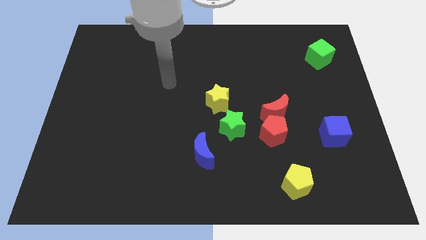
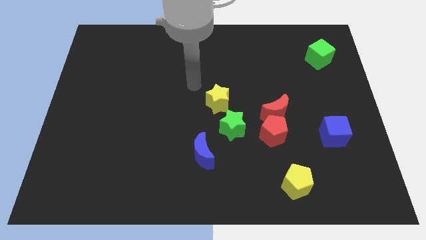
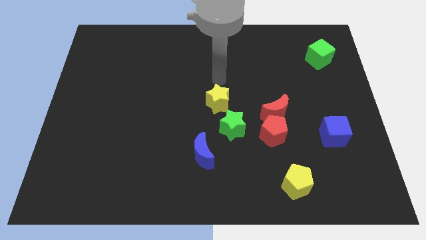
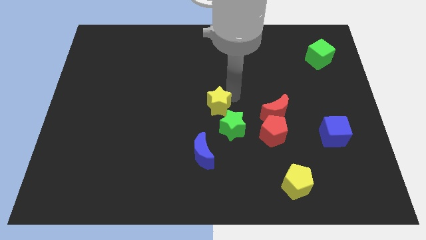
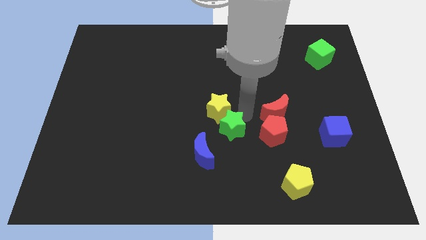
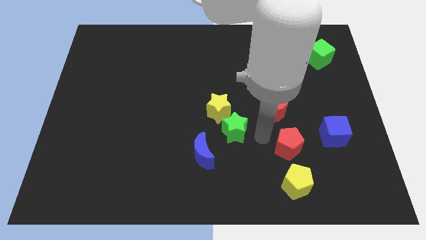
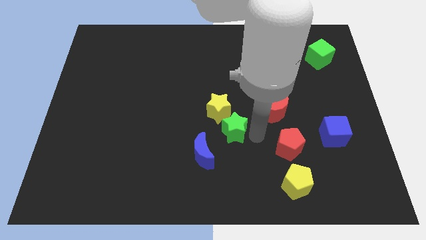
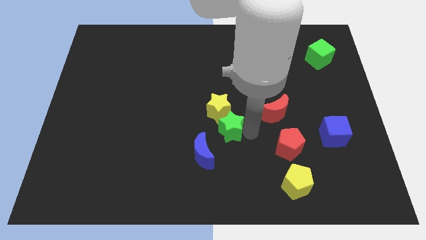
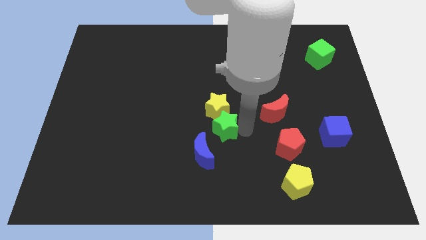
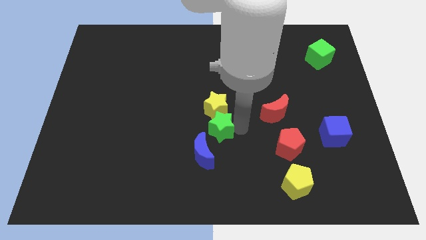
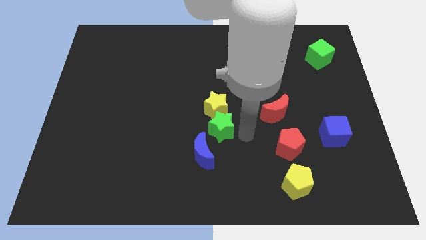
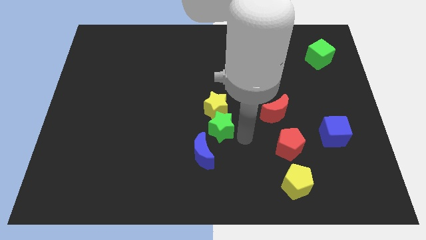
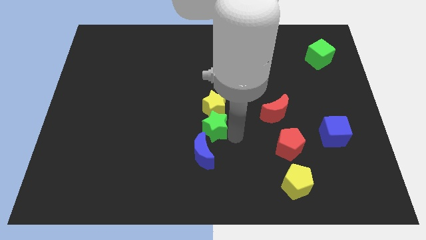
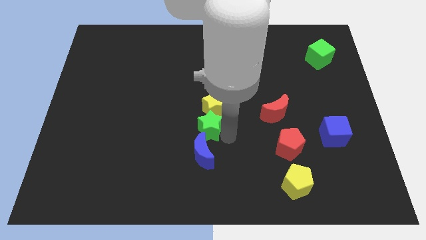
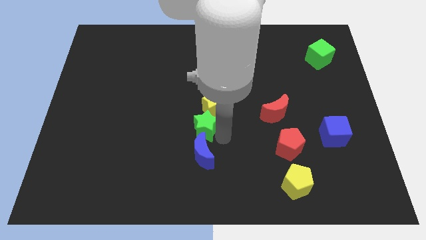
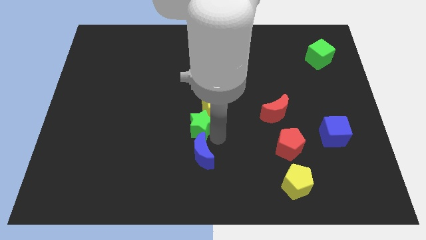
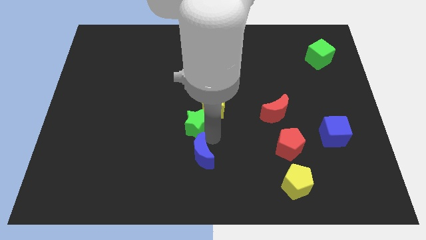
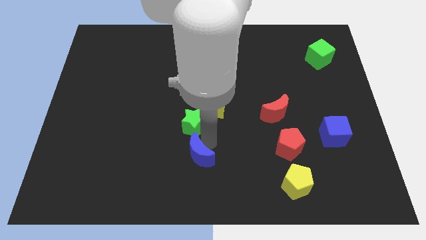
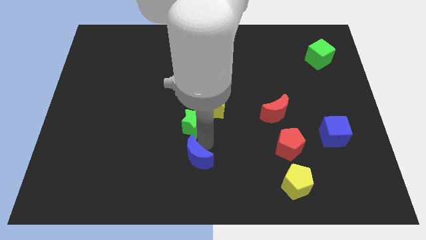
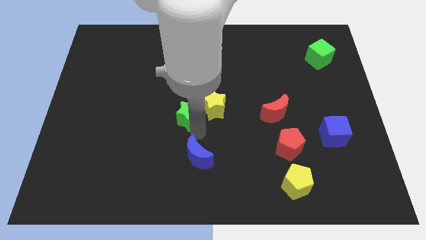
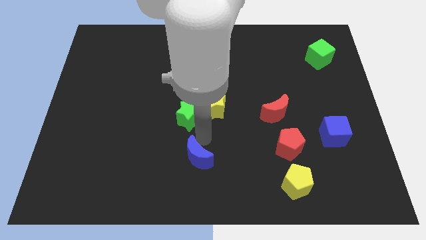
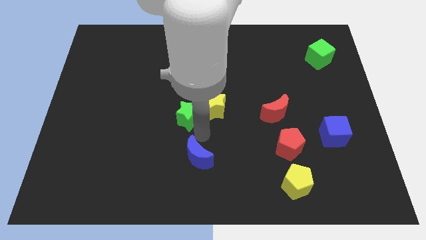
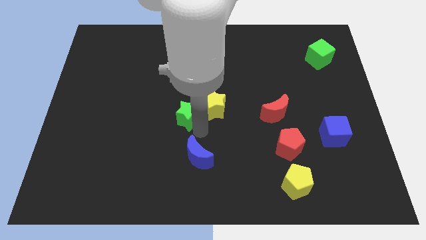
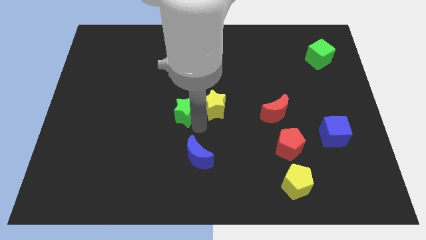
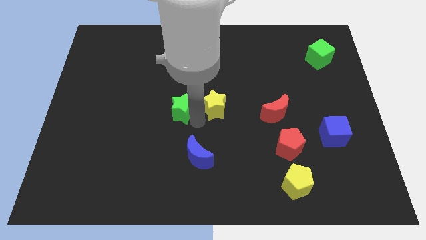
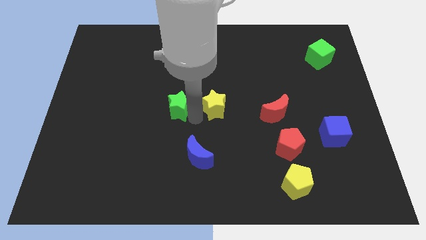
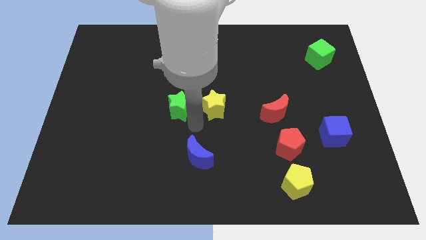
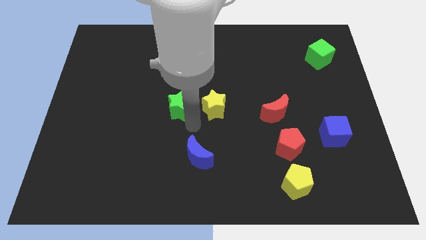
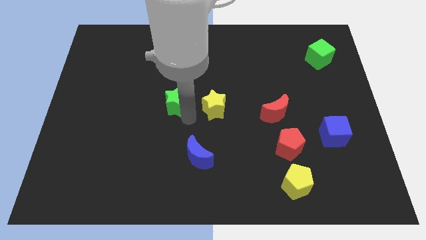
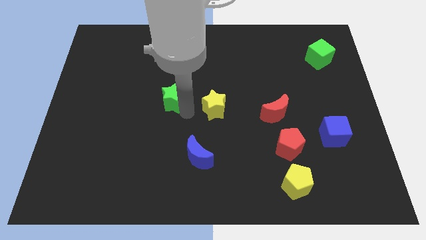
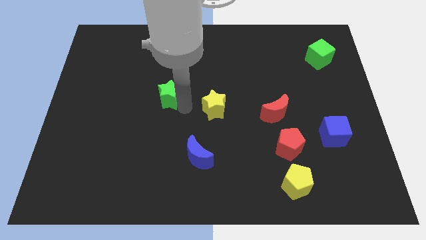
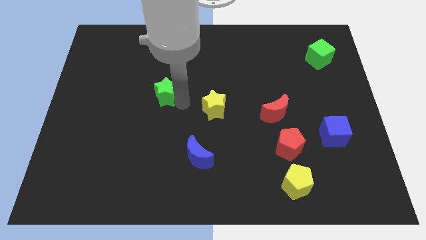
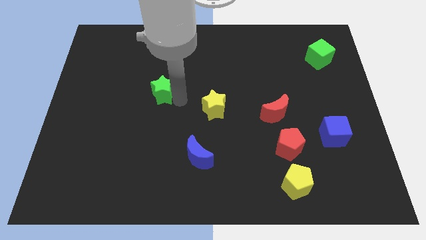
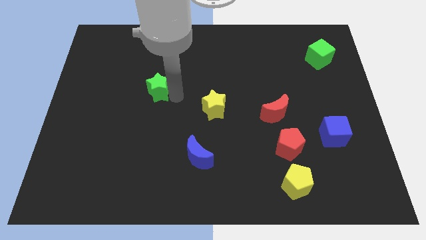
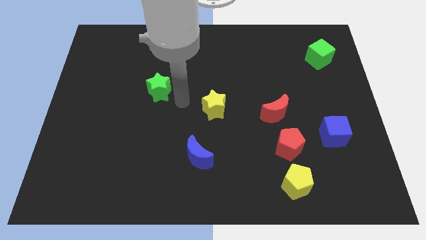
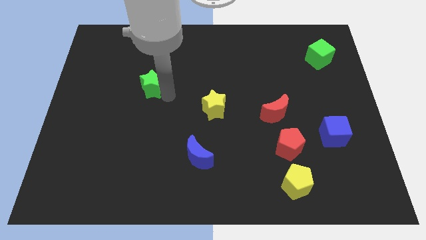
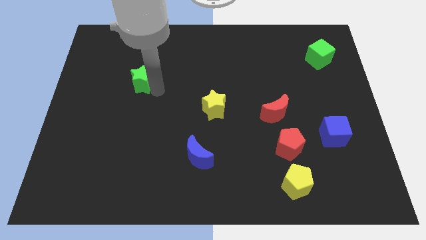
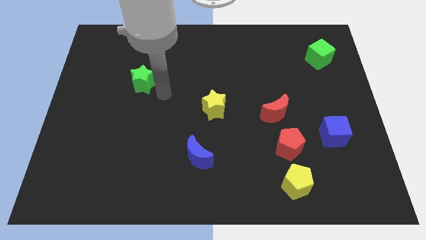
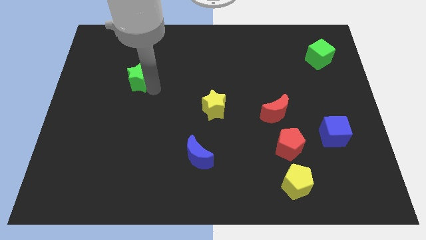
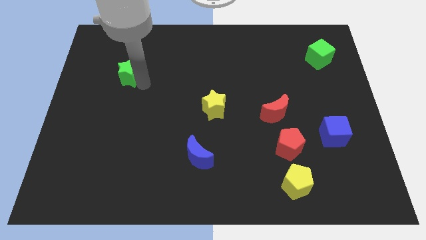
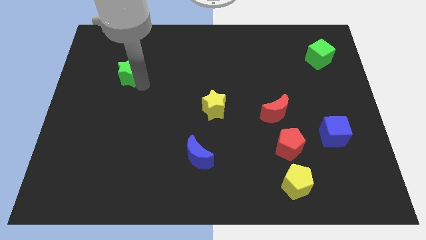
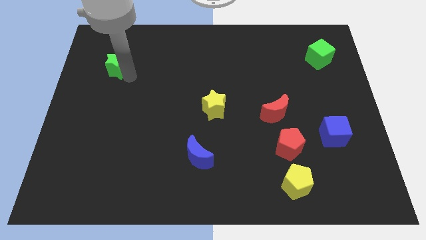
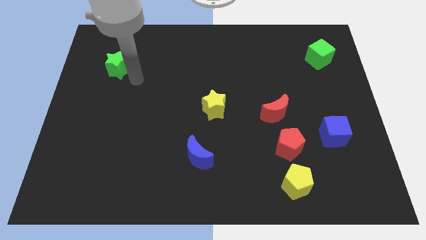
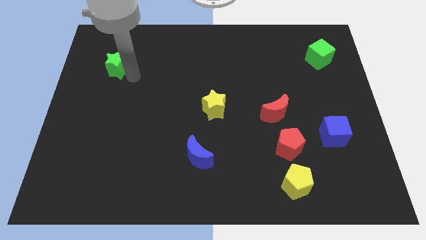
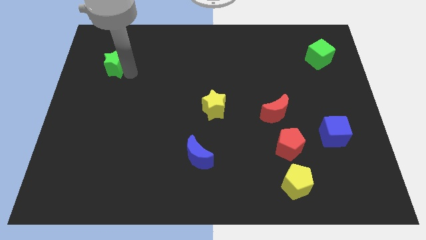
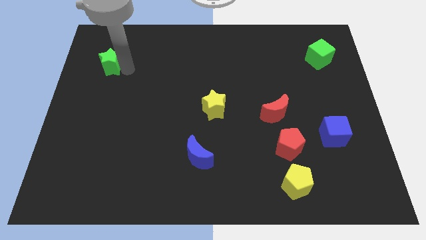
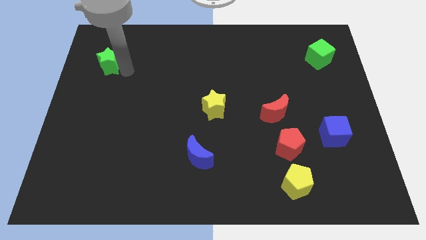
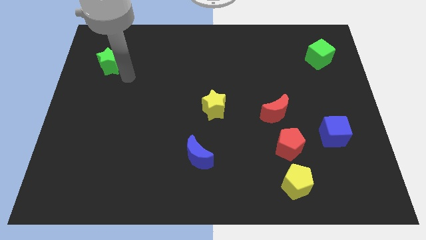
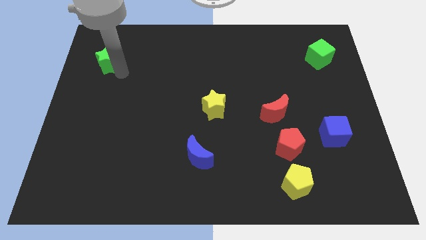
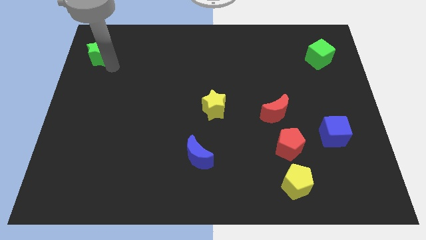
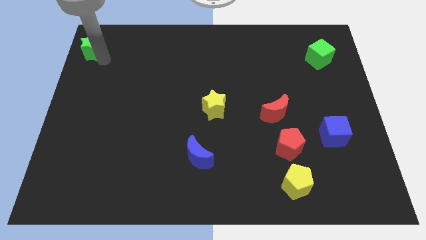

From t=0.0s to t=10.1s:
move the green star to the upper left corner

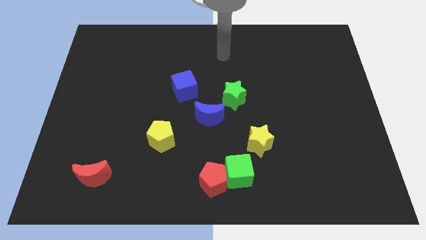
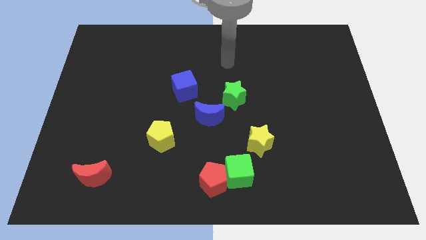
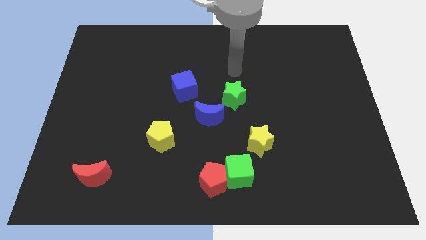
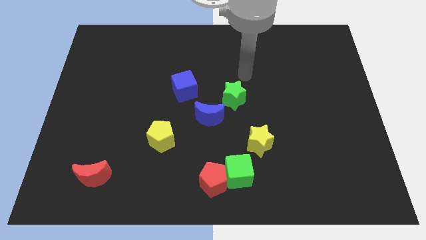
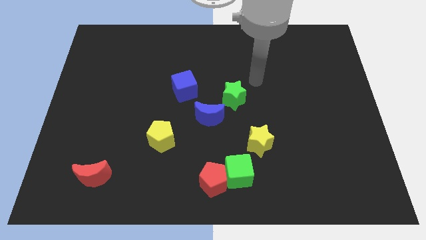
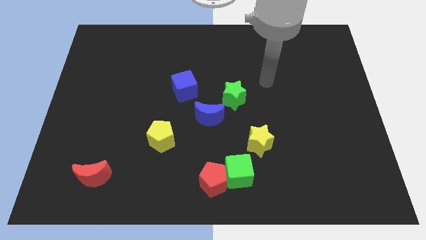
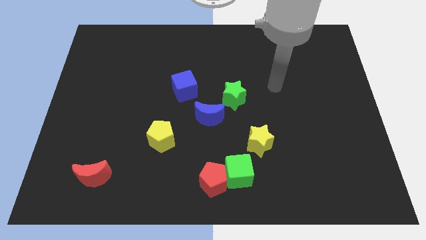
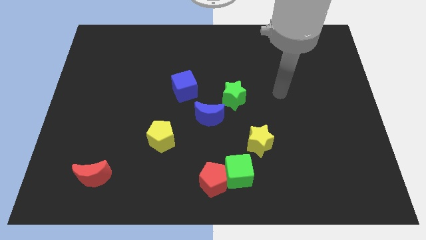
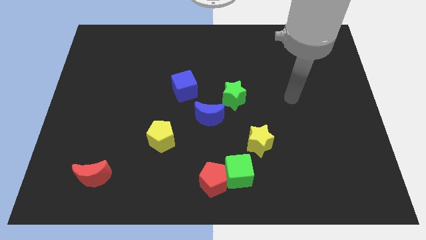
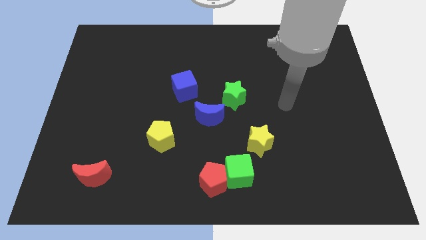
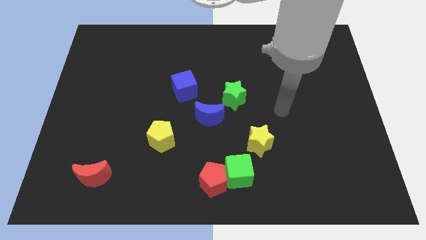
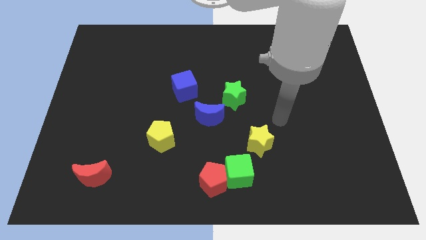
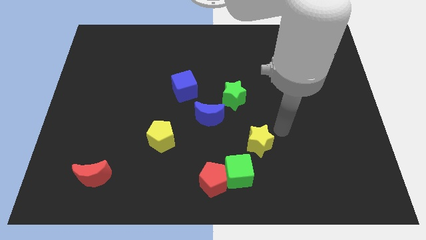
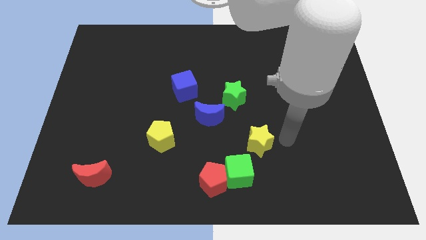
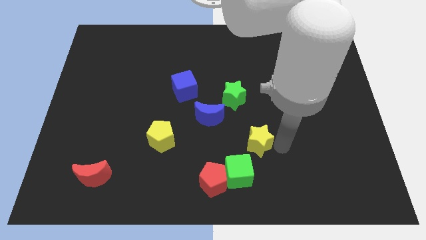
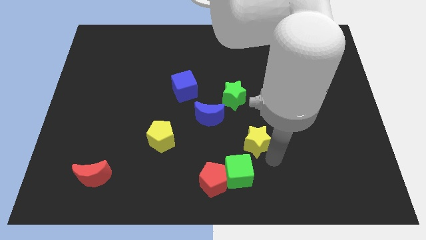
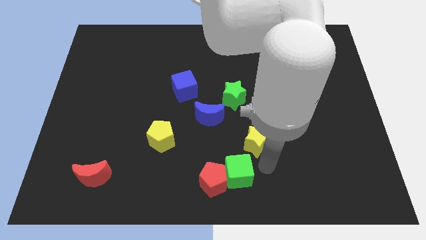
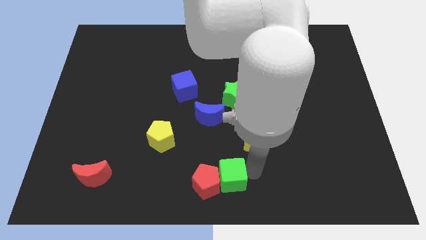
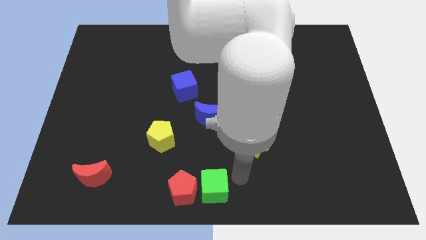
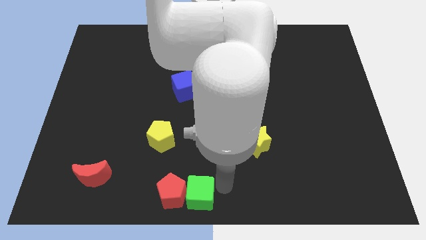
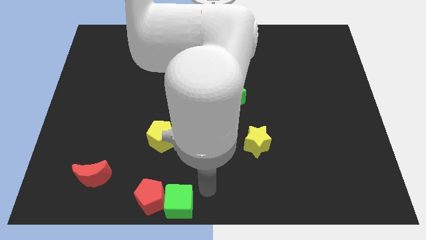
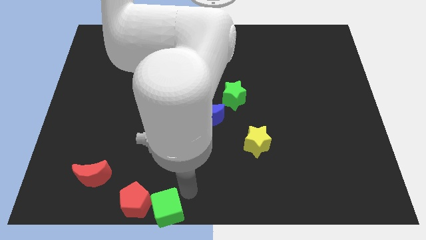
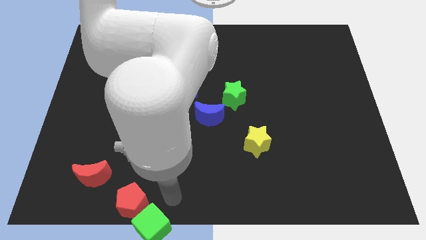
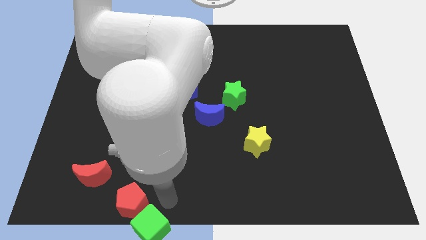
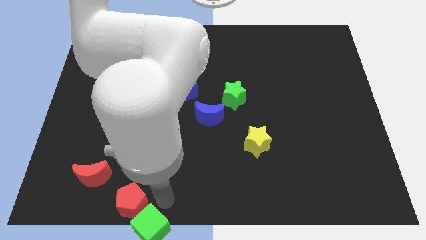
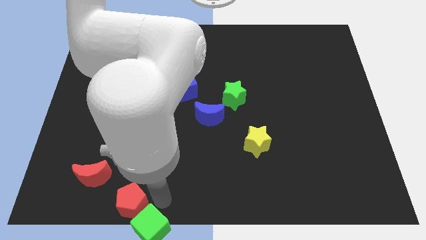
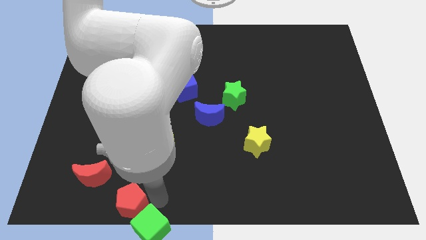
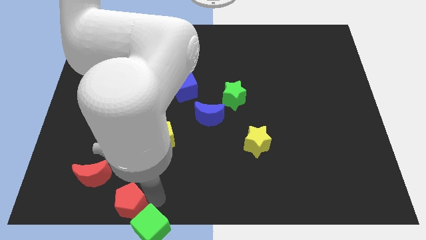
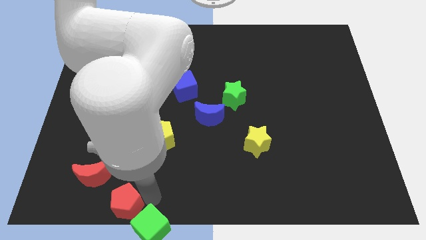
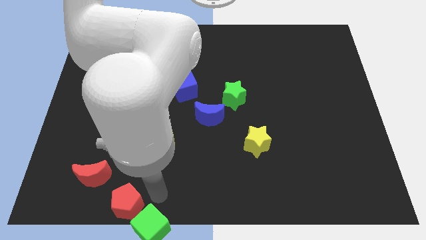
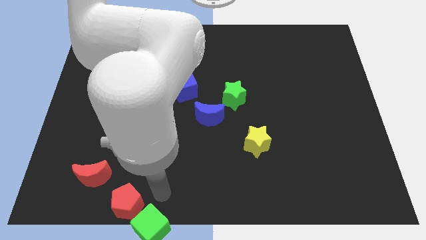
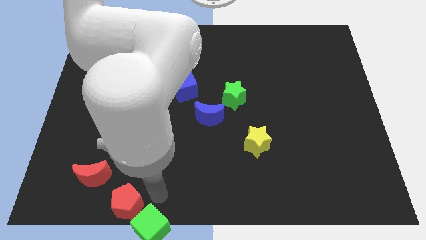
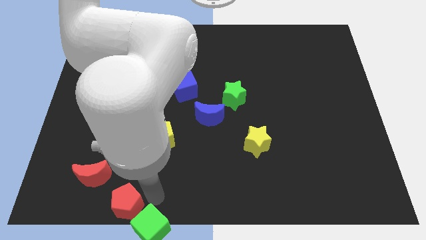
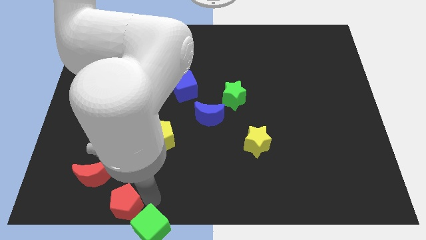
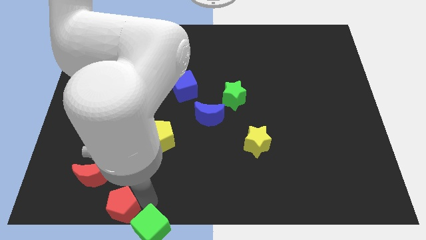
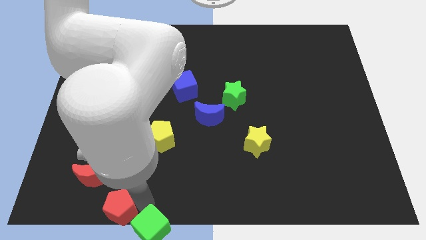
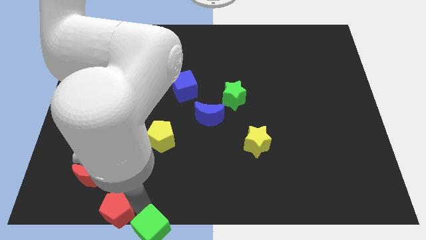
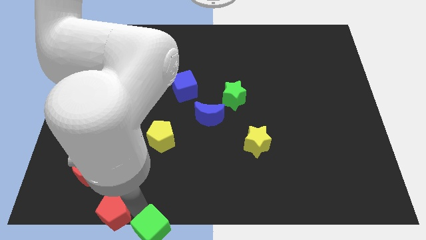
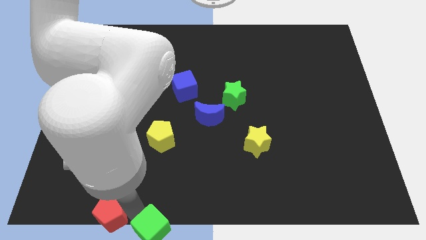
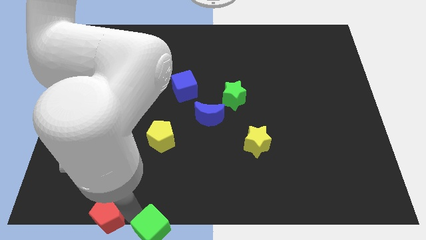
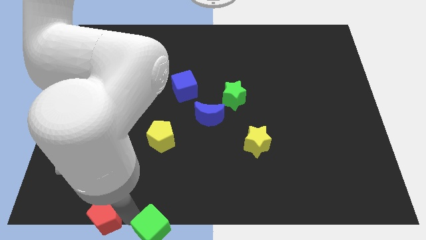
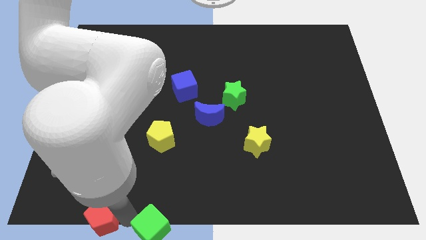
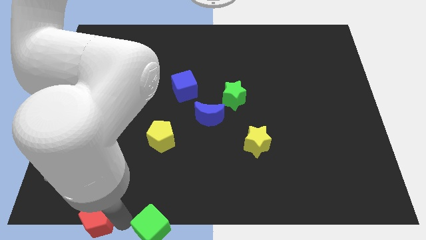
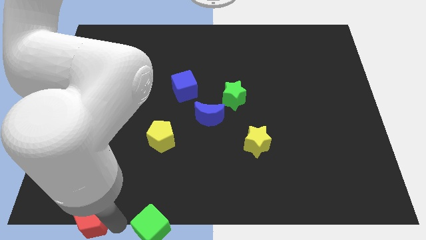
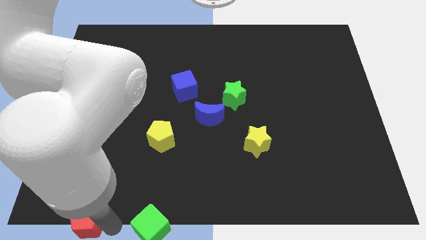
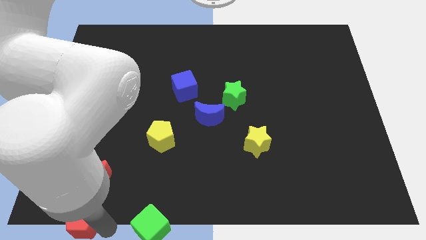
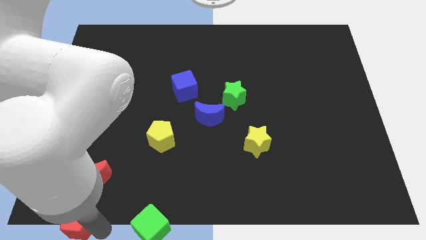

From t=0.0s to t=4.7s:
slide the red pentagon to the lower left corner
